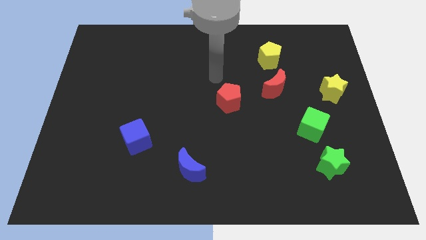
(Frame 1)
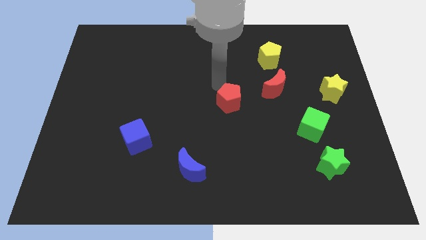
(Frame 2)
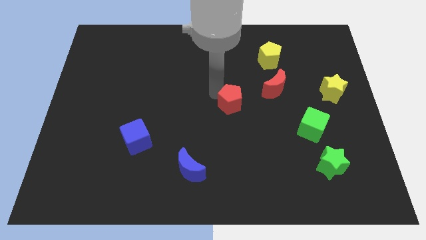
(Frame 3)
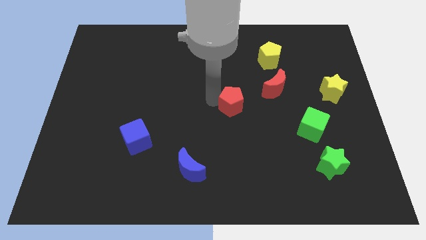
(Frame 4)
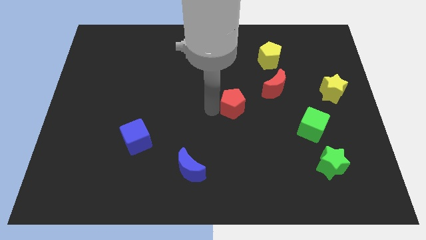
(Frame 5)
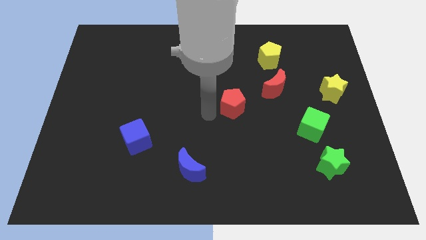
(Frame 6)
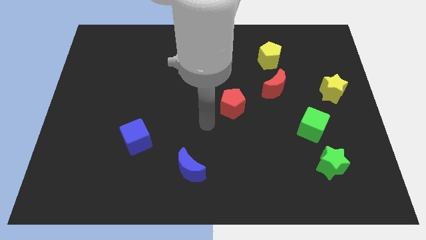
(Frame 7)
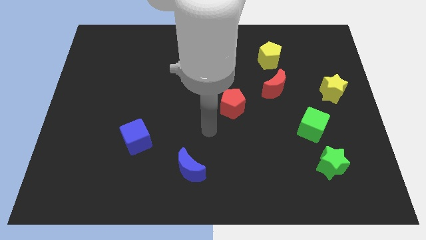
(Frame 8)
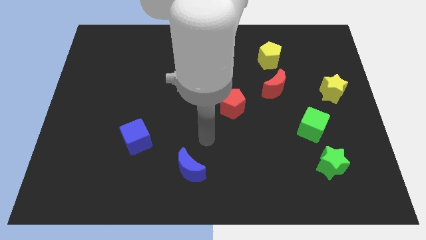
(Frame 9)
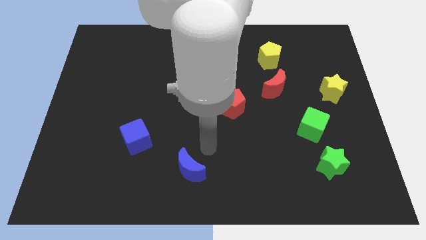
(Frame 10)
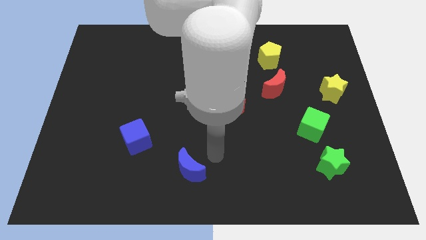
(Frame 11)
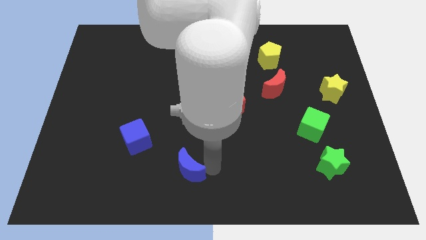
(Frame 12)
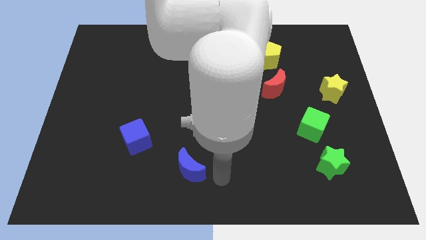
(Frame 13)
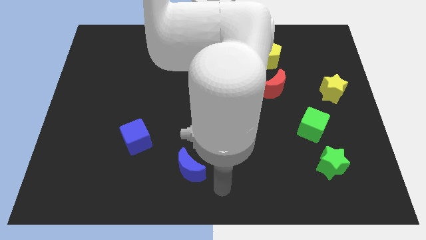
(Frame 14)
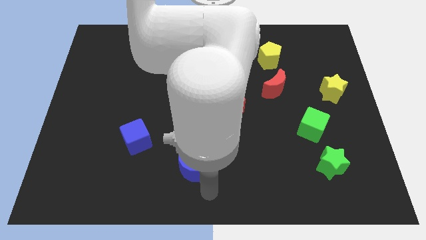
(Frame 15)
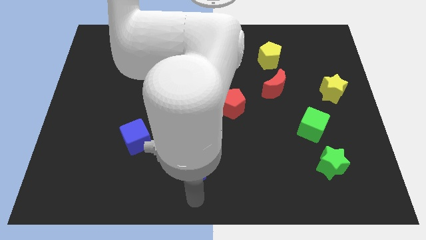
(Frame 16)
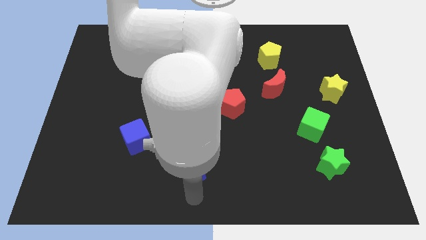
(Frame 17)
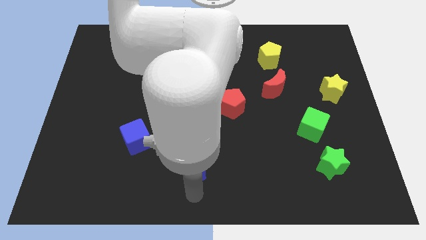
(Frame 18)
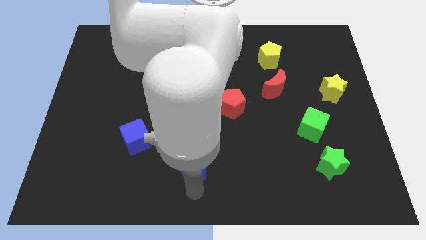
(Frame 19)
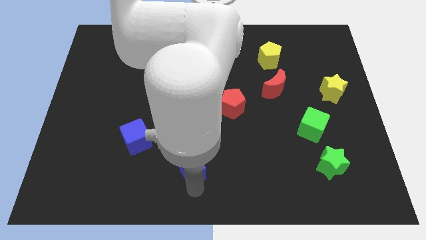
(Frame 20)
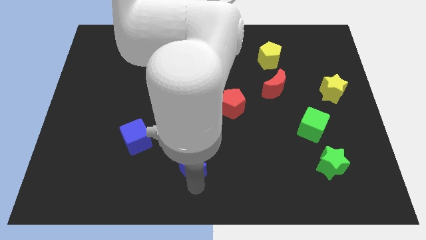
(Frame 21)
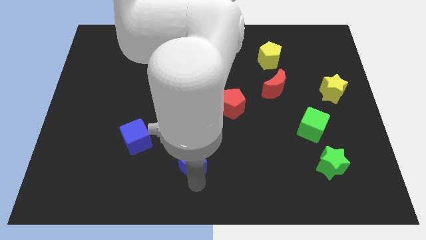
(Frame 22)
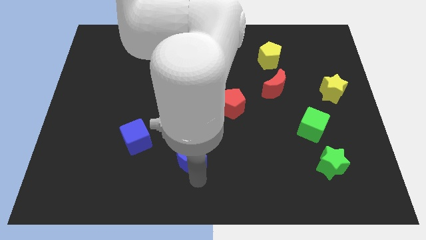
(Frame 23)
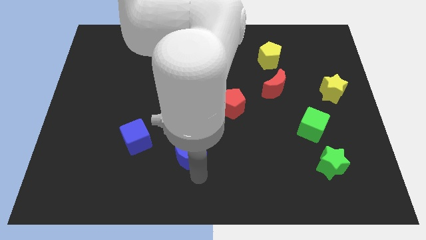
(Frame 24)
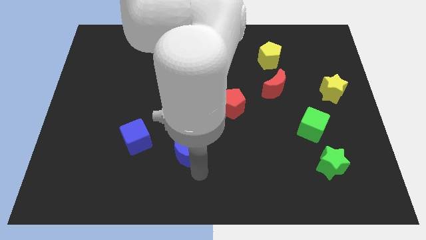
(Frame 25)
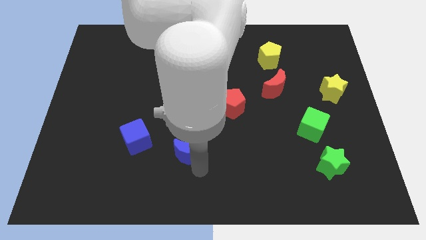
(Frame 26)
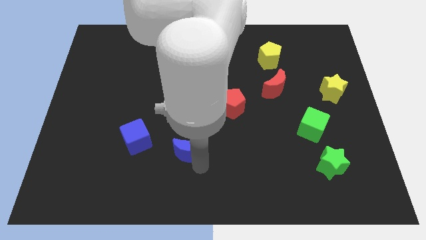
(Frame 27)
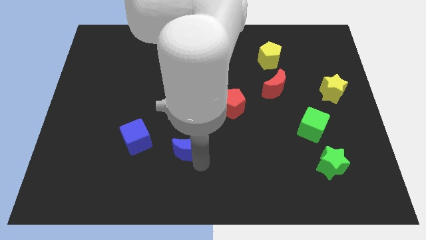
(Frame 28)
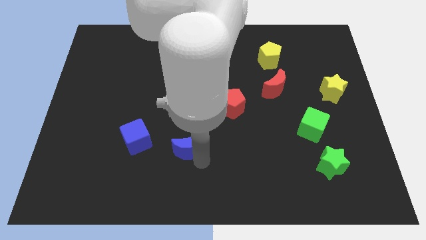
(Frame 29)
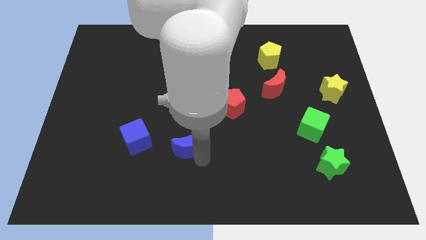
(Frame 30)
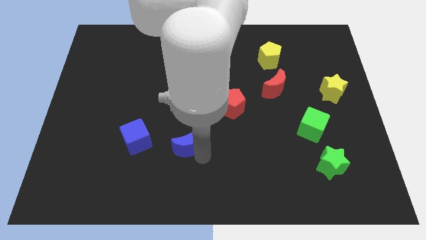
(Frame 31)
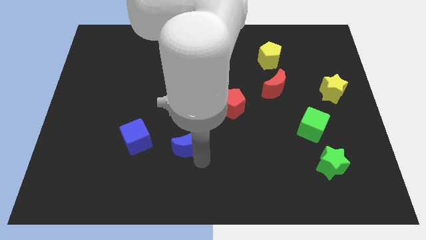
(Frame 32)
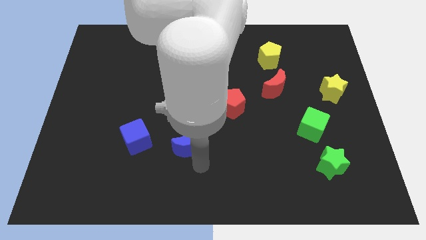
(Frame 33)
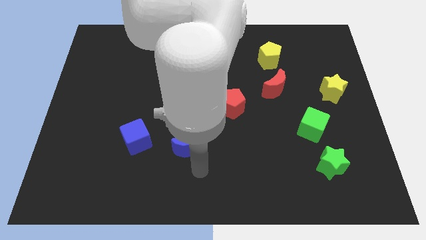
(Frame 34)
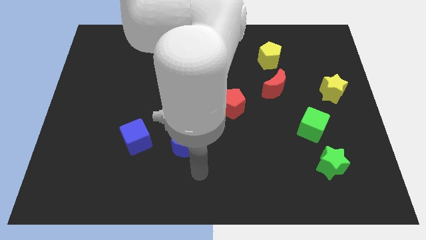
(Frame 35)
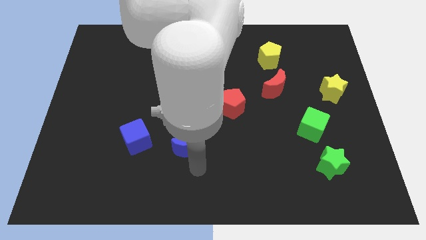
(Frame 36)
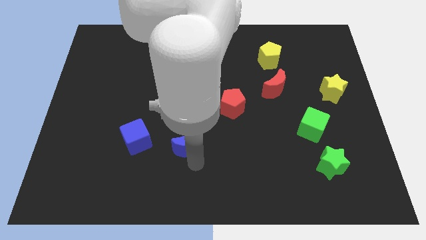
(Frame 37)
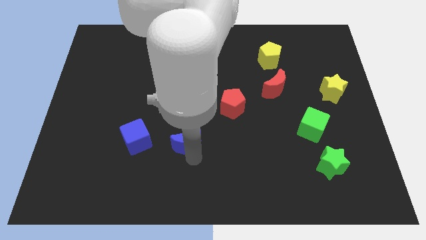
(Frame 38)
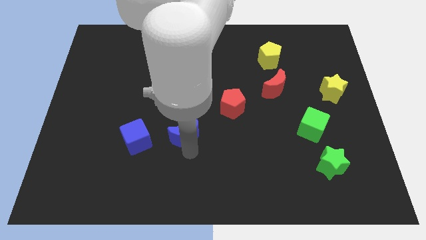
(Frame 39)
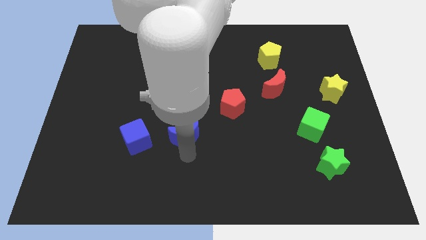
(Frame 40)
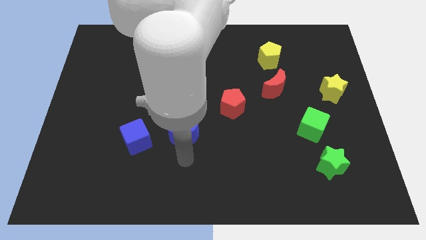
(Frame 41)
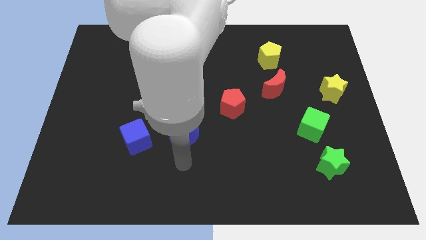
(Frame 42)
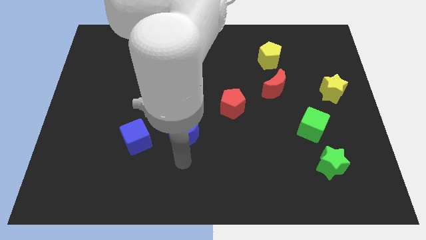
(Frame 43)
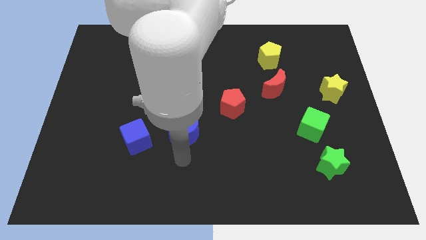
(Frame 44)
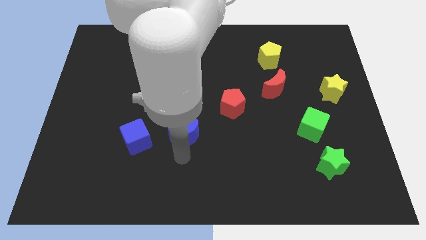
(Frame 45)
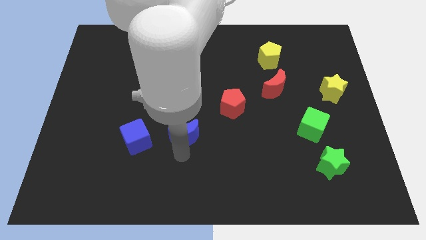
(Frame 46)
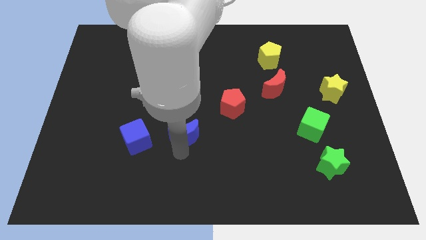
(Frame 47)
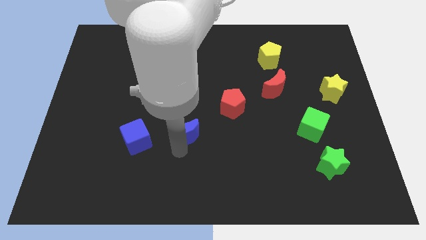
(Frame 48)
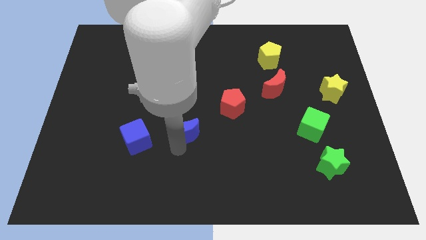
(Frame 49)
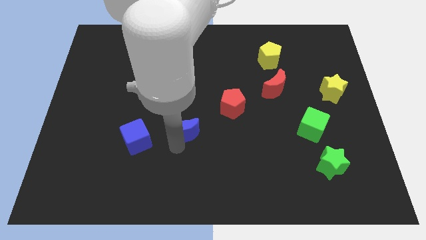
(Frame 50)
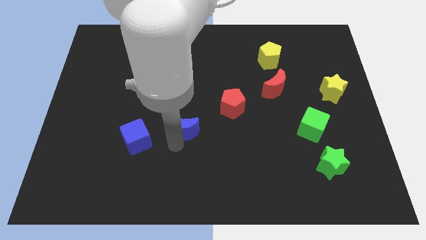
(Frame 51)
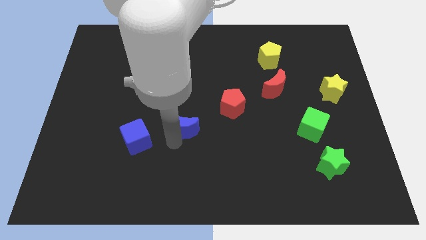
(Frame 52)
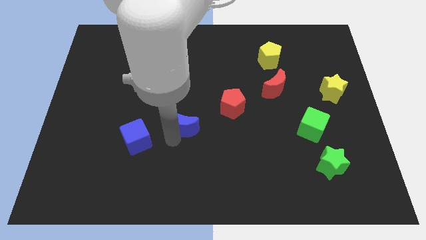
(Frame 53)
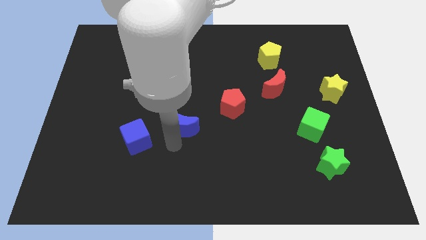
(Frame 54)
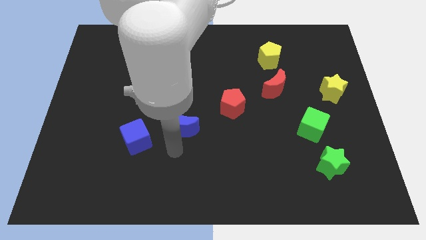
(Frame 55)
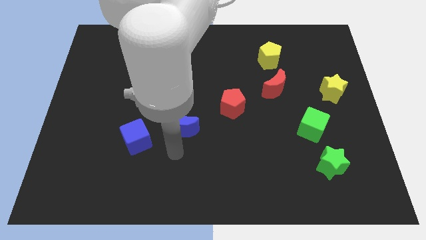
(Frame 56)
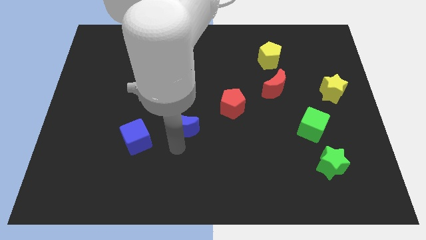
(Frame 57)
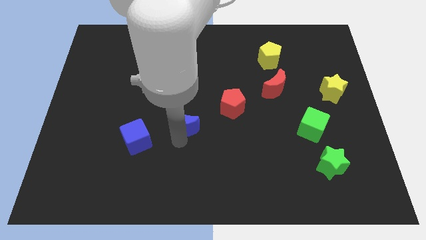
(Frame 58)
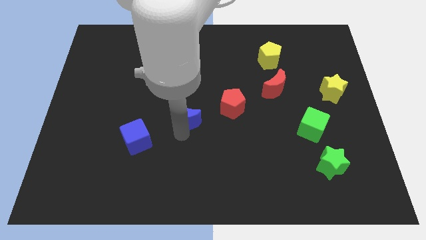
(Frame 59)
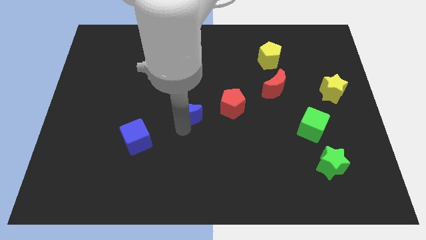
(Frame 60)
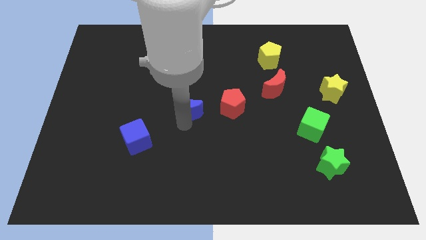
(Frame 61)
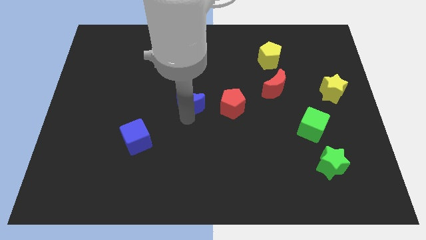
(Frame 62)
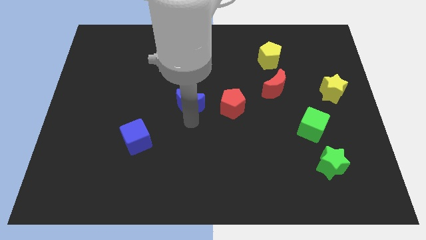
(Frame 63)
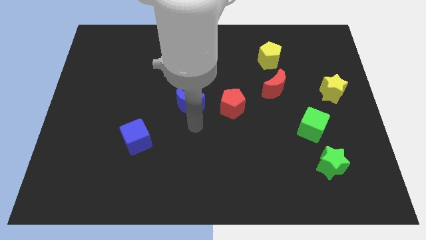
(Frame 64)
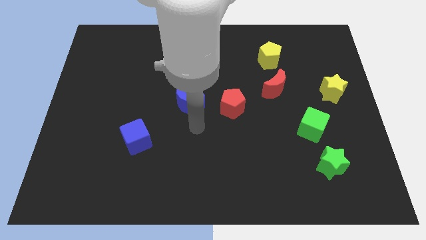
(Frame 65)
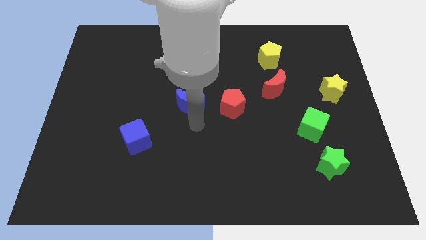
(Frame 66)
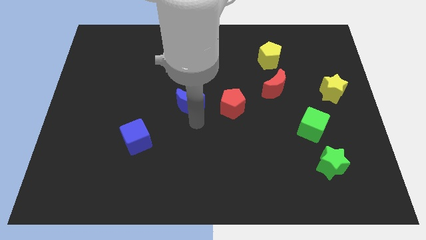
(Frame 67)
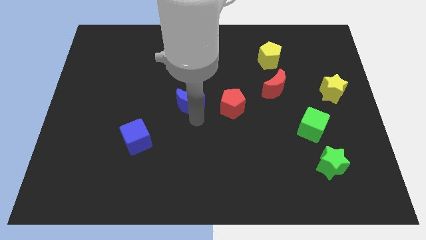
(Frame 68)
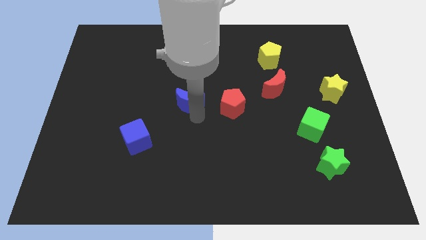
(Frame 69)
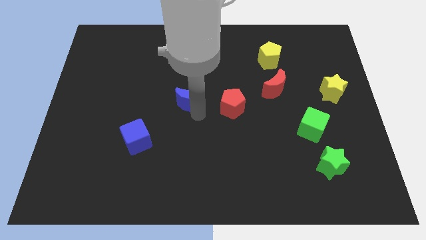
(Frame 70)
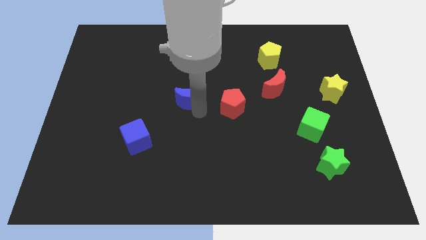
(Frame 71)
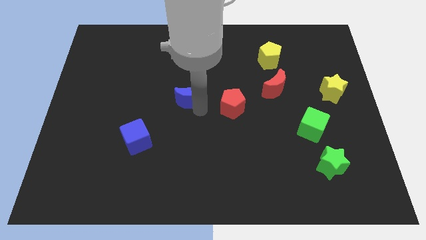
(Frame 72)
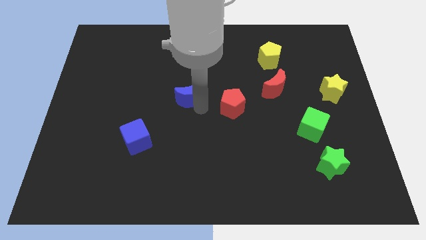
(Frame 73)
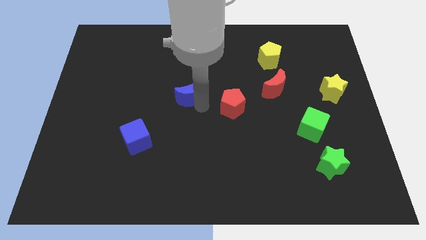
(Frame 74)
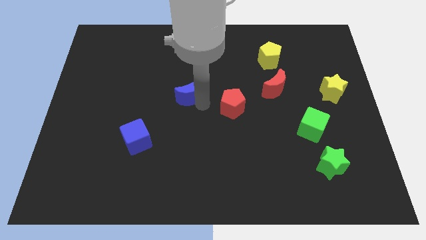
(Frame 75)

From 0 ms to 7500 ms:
push the blue moon upwards

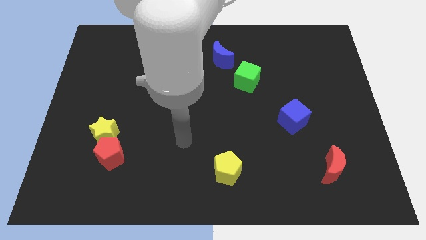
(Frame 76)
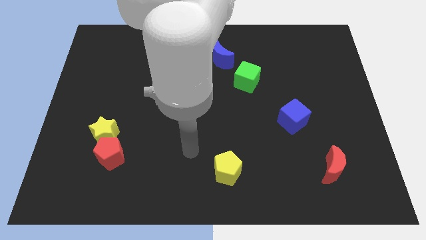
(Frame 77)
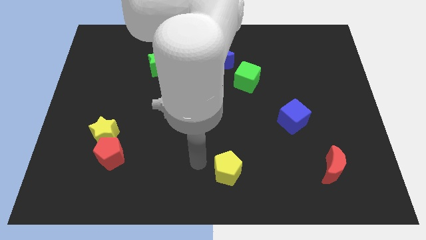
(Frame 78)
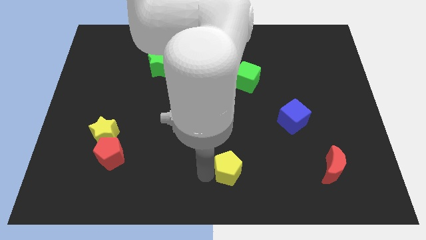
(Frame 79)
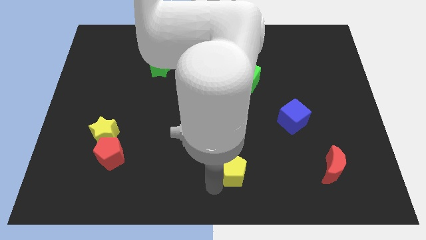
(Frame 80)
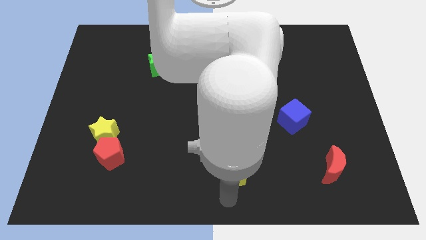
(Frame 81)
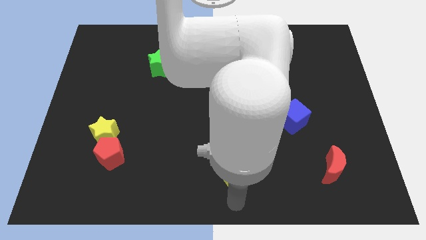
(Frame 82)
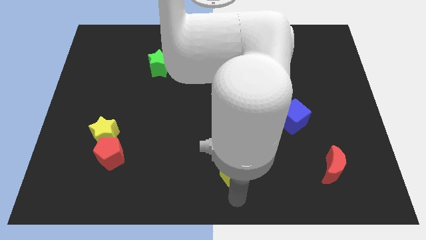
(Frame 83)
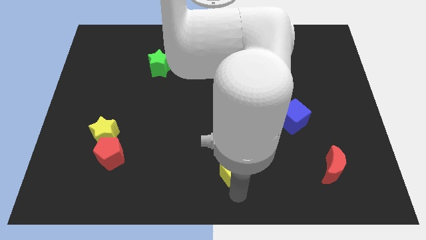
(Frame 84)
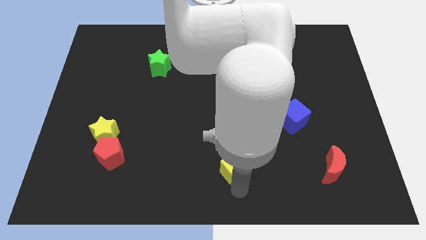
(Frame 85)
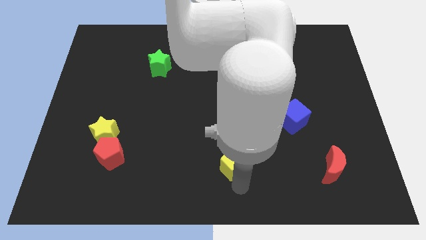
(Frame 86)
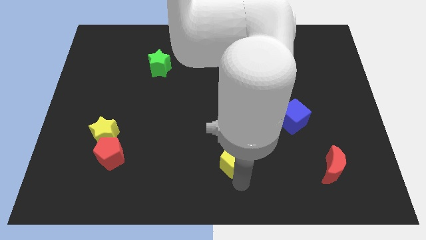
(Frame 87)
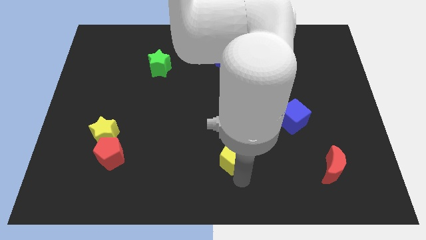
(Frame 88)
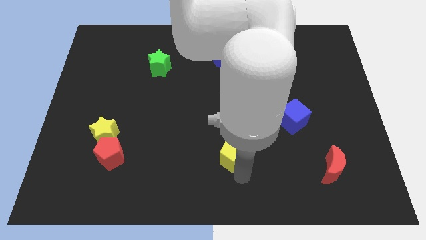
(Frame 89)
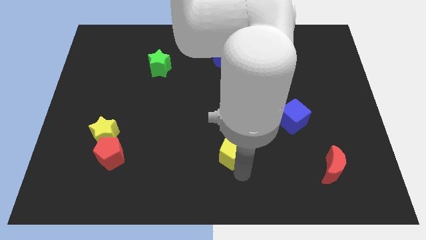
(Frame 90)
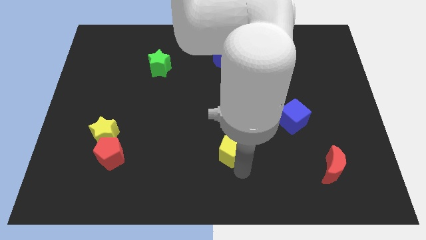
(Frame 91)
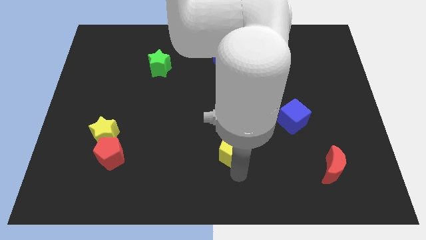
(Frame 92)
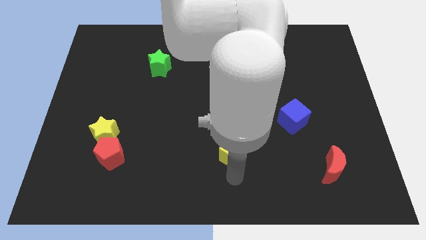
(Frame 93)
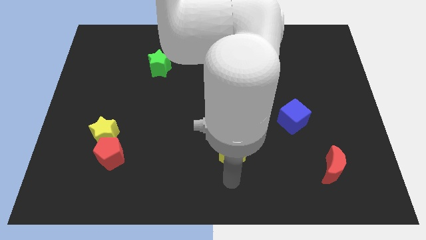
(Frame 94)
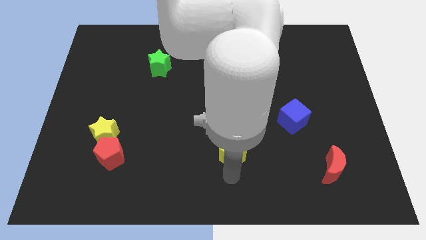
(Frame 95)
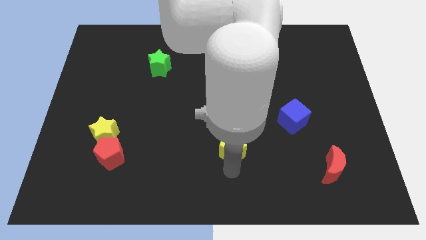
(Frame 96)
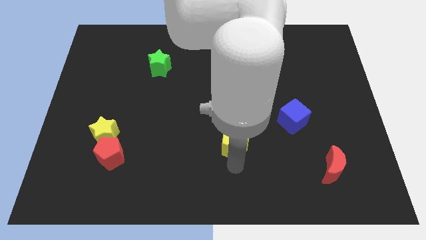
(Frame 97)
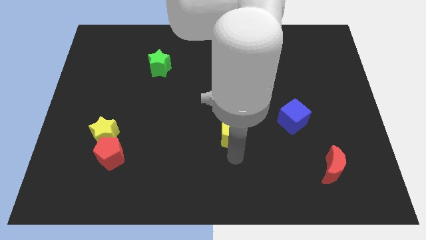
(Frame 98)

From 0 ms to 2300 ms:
push the yellow pentagon a little up
